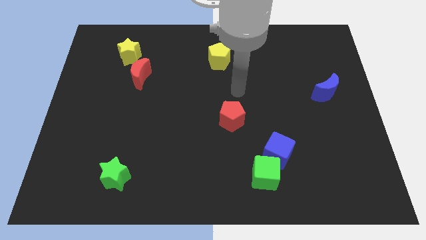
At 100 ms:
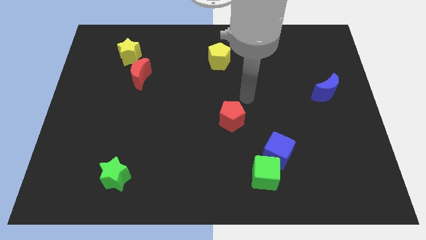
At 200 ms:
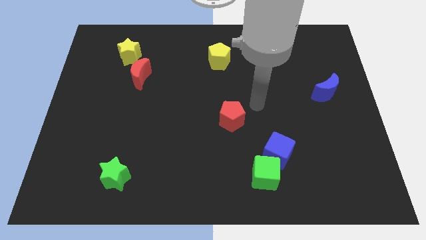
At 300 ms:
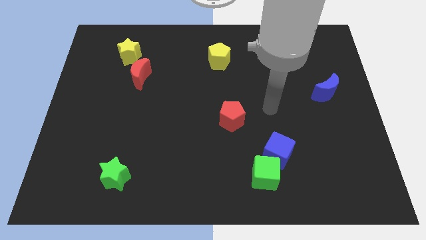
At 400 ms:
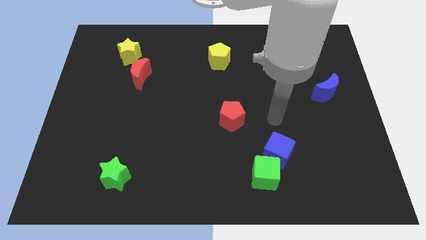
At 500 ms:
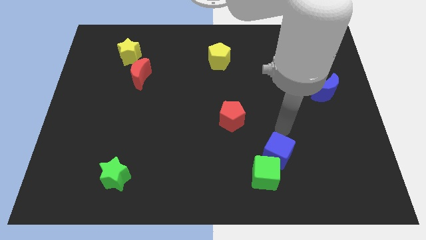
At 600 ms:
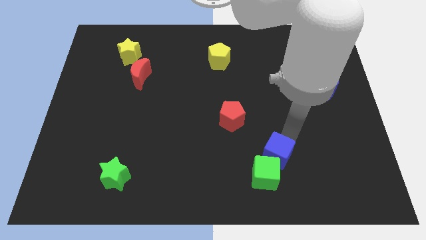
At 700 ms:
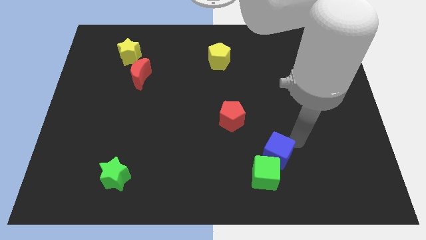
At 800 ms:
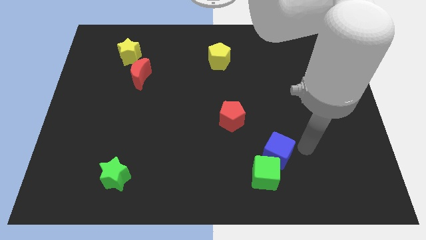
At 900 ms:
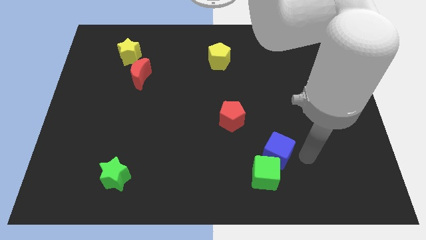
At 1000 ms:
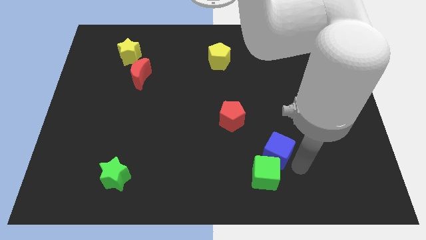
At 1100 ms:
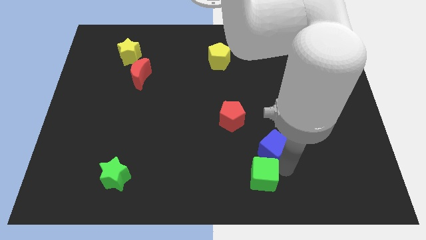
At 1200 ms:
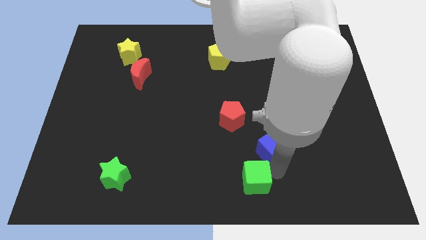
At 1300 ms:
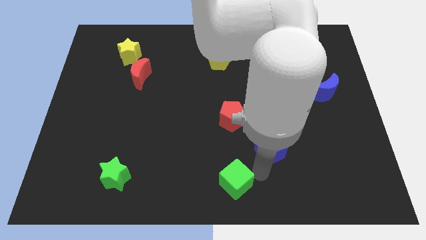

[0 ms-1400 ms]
separate the blue cube from the green cube

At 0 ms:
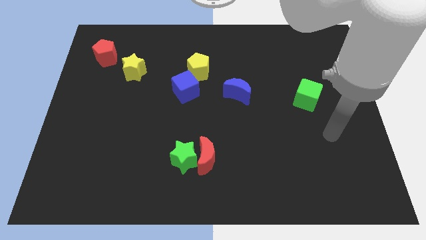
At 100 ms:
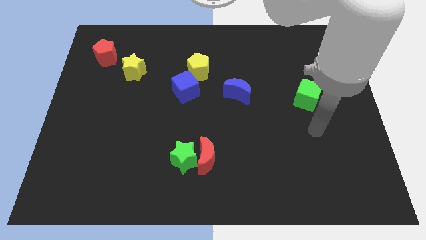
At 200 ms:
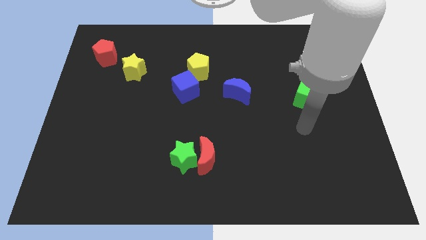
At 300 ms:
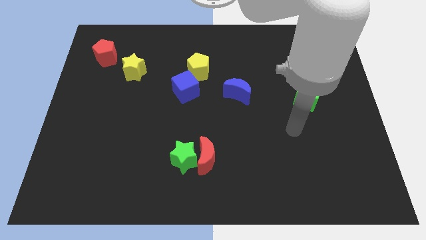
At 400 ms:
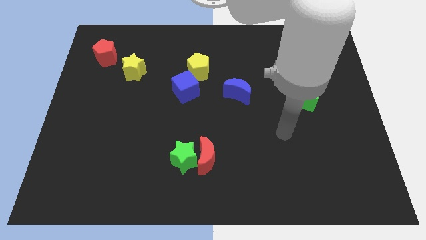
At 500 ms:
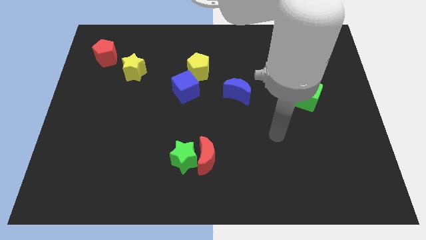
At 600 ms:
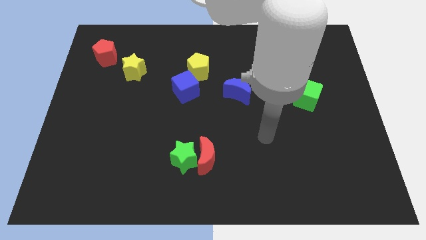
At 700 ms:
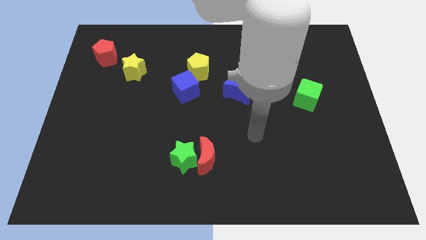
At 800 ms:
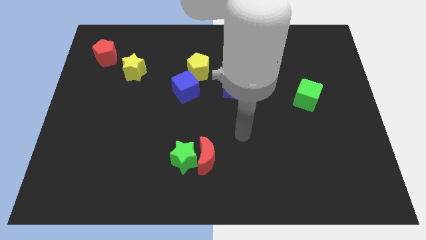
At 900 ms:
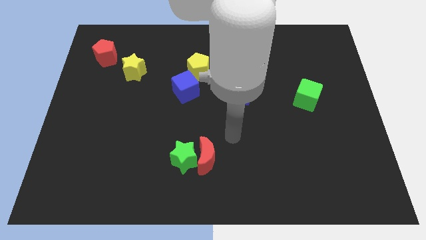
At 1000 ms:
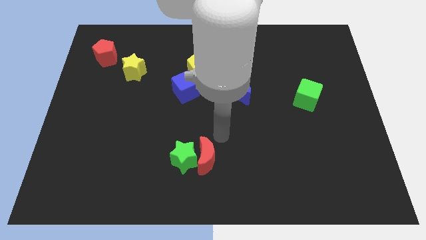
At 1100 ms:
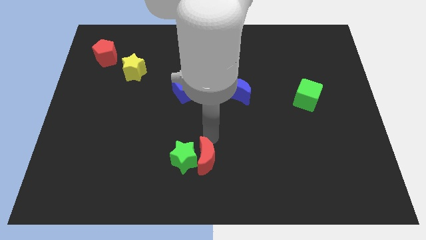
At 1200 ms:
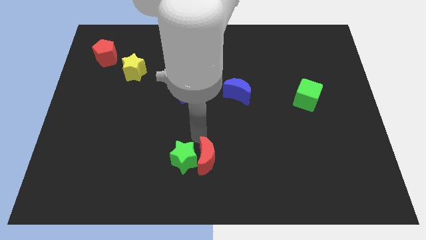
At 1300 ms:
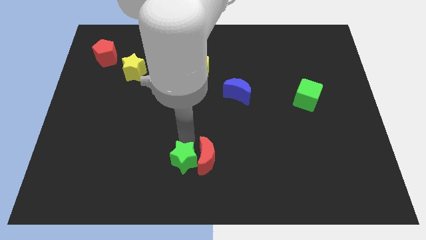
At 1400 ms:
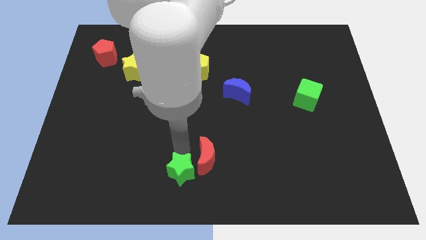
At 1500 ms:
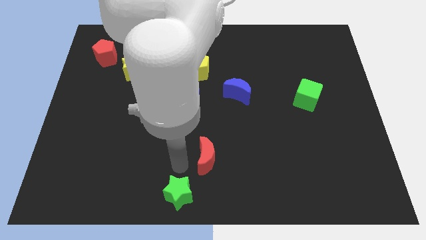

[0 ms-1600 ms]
move the red moon away from the green star

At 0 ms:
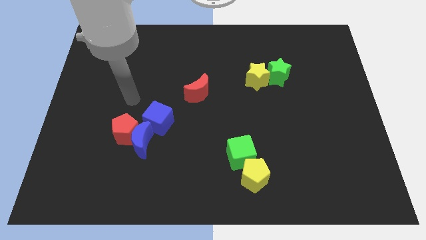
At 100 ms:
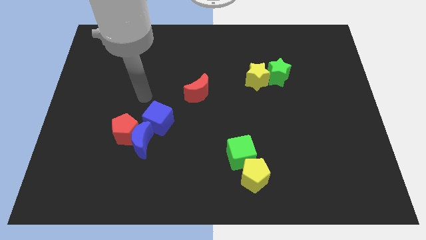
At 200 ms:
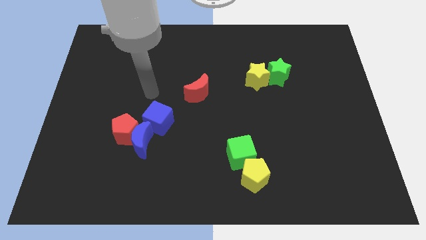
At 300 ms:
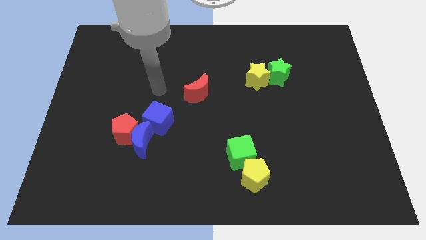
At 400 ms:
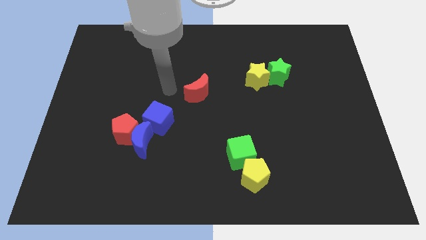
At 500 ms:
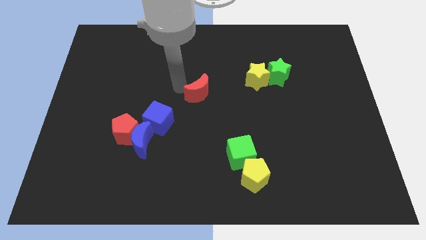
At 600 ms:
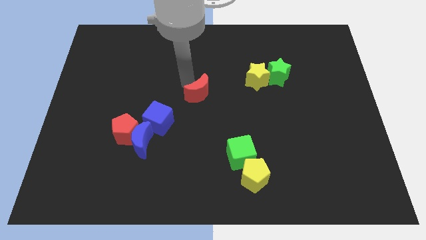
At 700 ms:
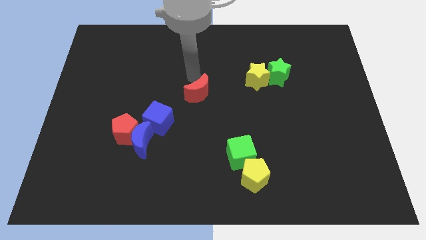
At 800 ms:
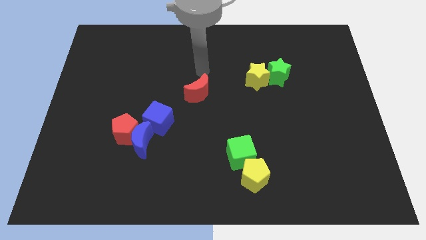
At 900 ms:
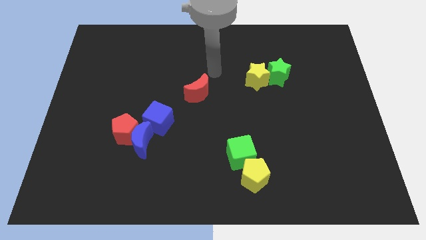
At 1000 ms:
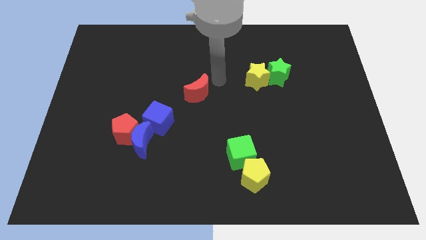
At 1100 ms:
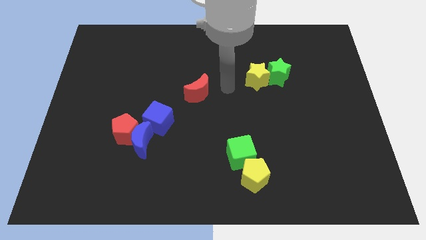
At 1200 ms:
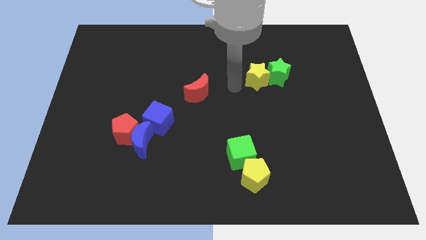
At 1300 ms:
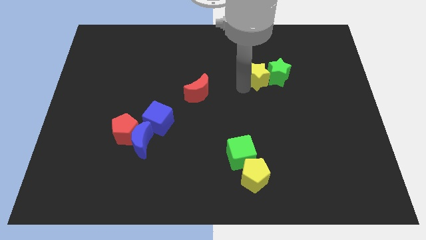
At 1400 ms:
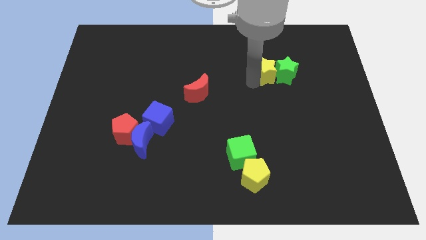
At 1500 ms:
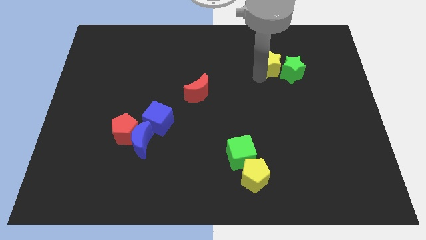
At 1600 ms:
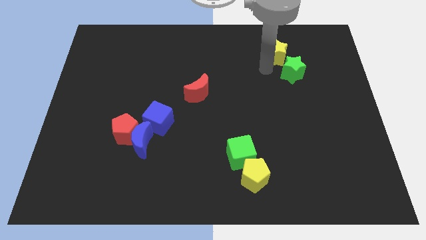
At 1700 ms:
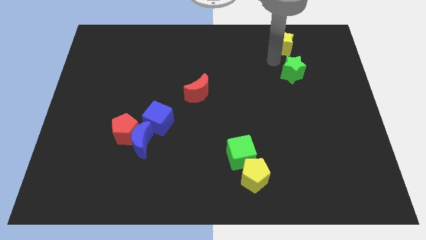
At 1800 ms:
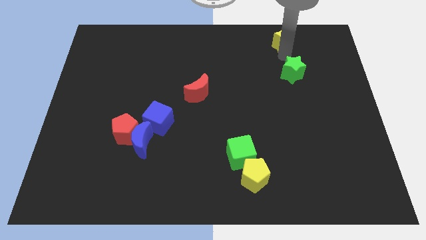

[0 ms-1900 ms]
move the green star away from the yellow star

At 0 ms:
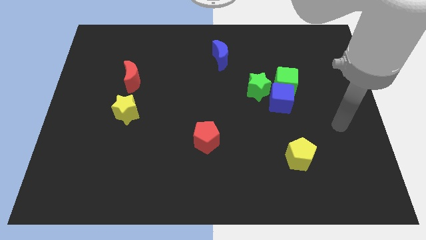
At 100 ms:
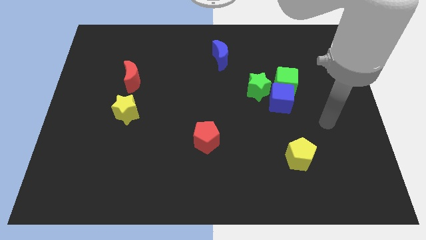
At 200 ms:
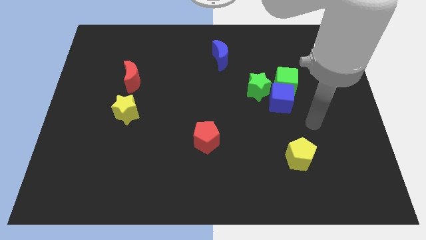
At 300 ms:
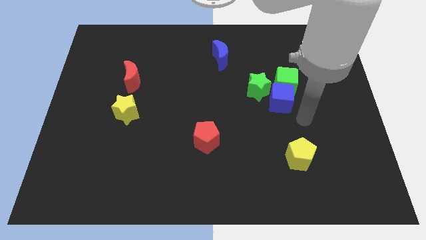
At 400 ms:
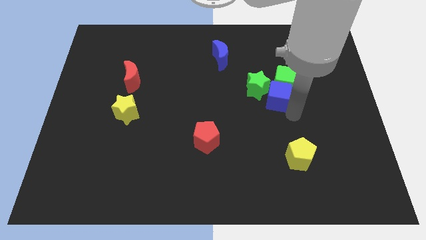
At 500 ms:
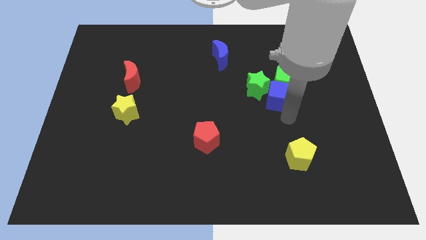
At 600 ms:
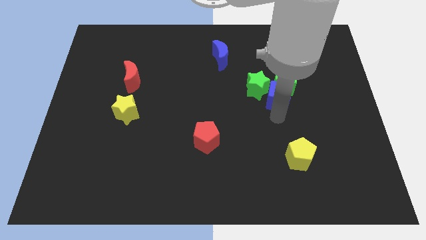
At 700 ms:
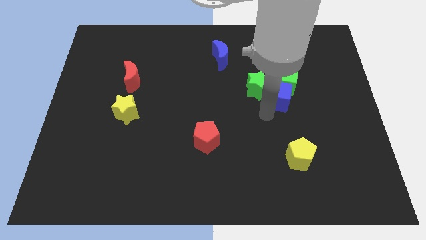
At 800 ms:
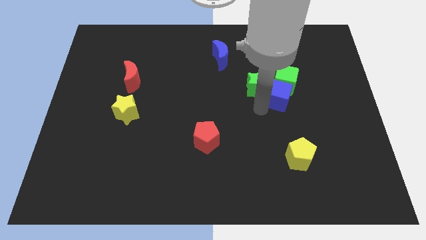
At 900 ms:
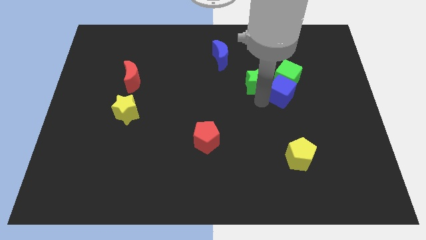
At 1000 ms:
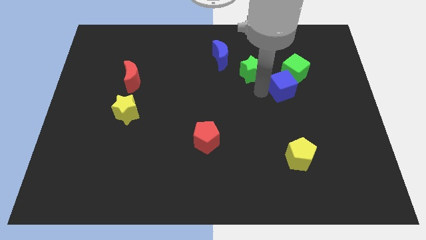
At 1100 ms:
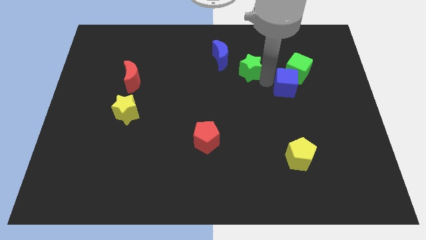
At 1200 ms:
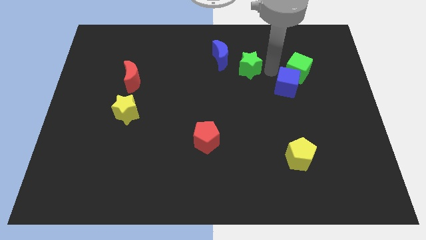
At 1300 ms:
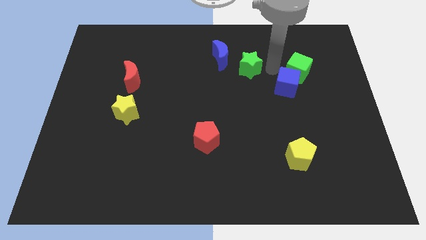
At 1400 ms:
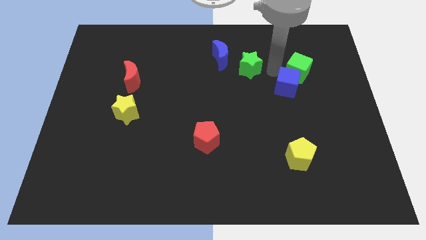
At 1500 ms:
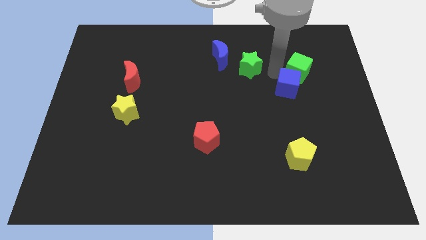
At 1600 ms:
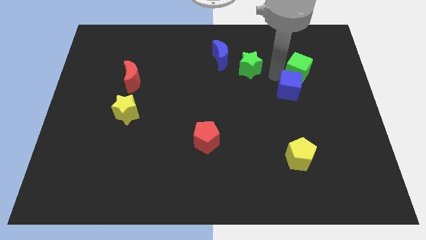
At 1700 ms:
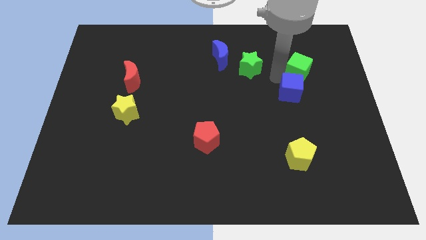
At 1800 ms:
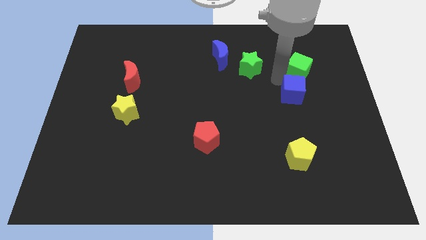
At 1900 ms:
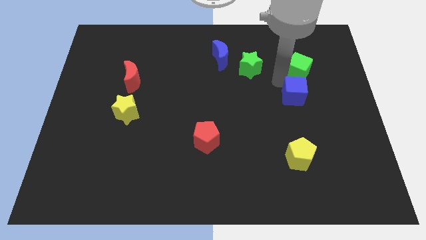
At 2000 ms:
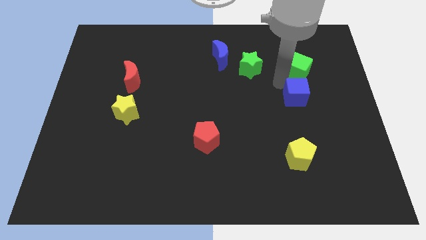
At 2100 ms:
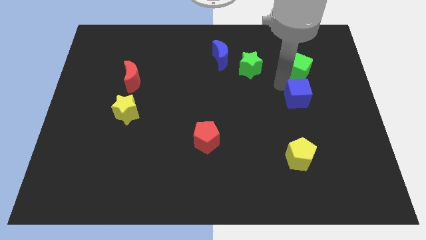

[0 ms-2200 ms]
move the blue cube away from the green cube and green star

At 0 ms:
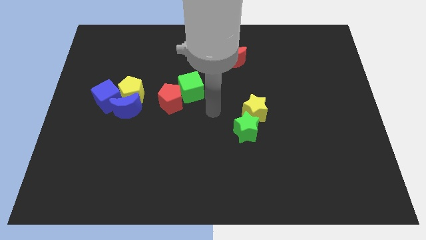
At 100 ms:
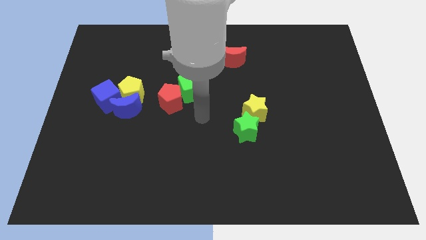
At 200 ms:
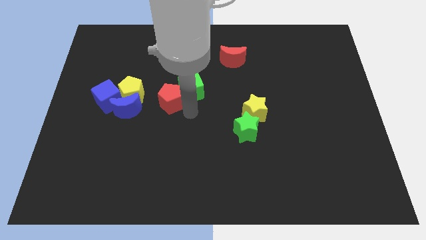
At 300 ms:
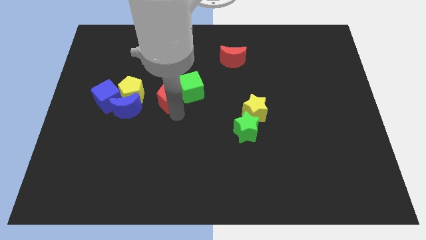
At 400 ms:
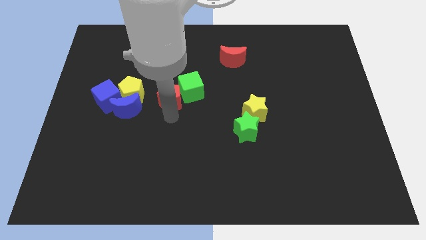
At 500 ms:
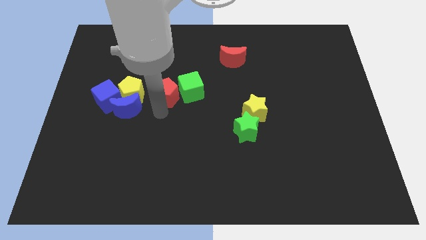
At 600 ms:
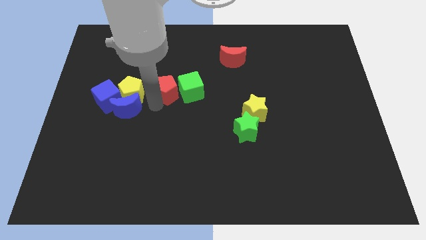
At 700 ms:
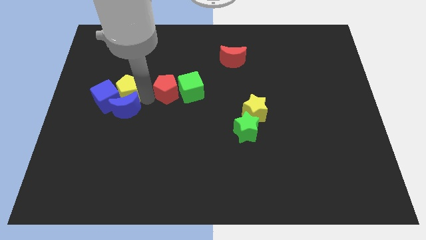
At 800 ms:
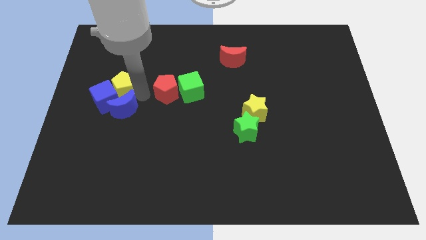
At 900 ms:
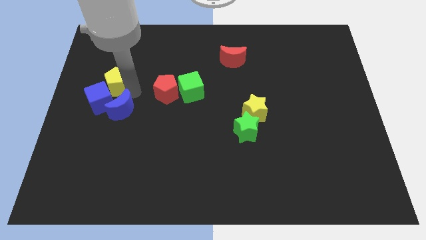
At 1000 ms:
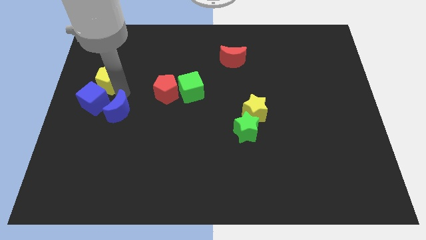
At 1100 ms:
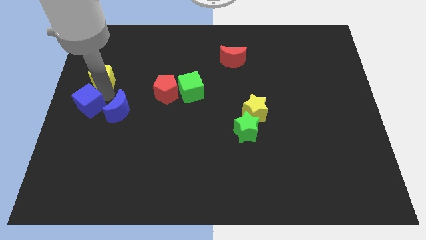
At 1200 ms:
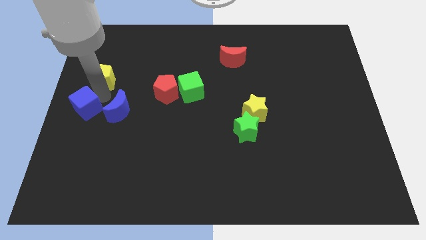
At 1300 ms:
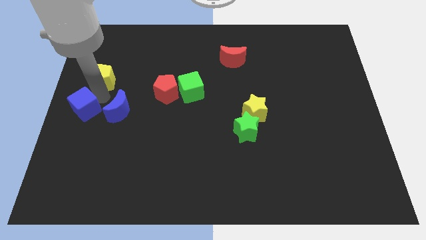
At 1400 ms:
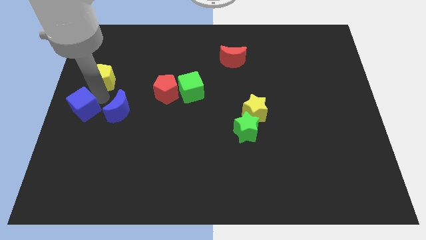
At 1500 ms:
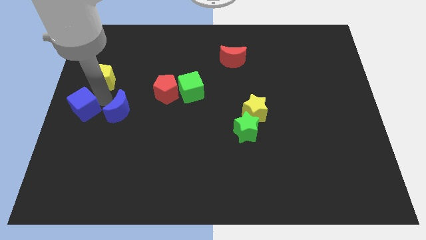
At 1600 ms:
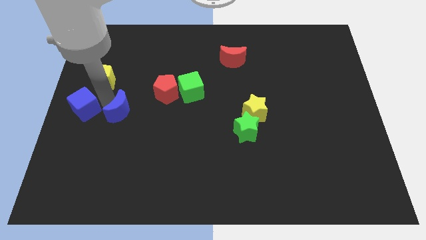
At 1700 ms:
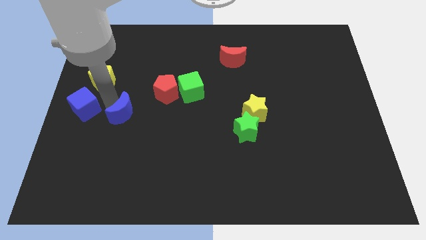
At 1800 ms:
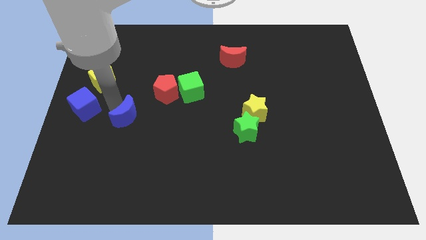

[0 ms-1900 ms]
separate the blue moon from the yellow pentagon and blue cube

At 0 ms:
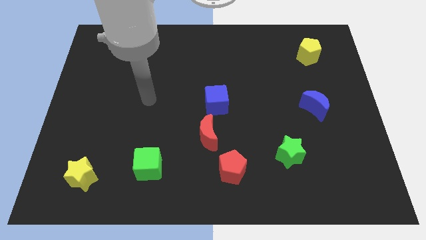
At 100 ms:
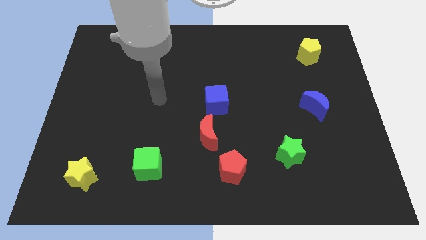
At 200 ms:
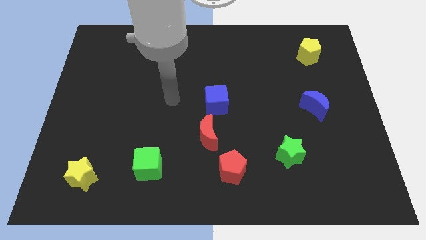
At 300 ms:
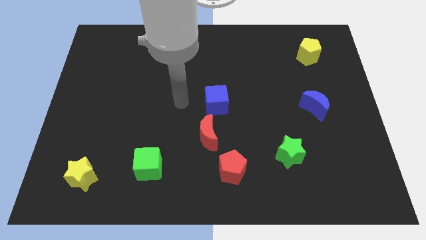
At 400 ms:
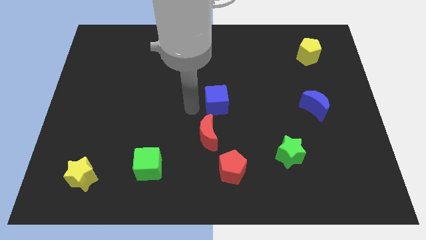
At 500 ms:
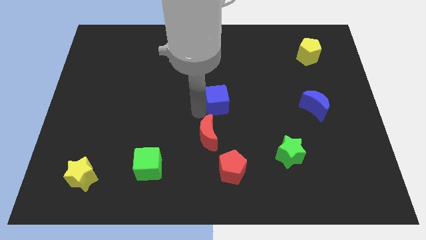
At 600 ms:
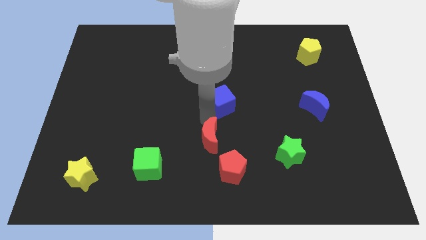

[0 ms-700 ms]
separate the blue cube from the red moon
